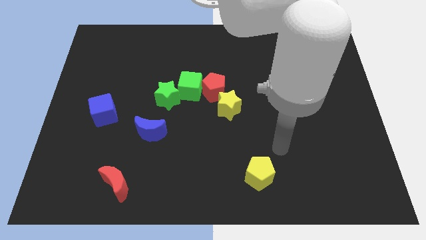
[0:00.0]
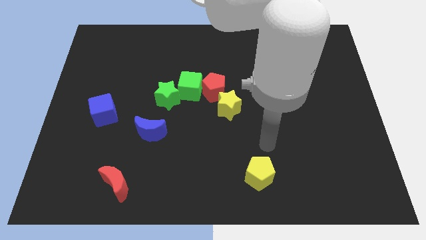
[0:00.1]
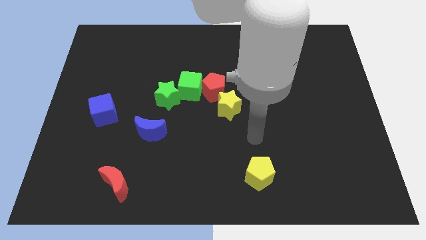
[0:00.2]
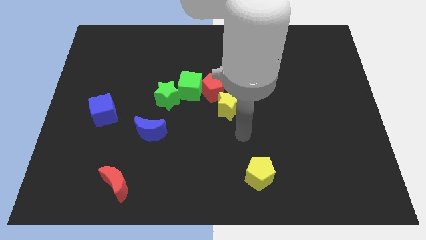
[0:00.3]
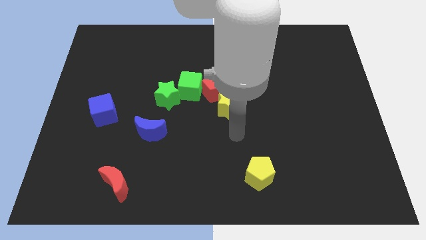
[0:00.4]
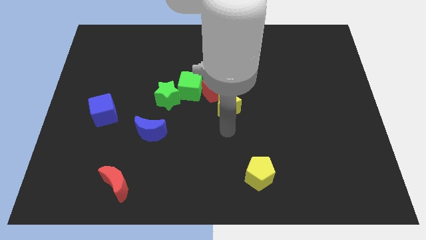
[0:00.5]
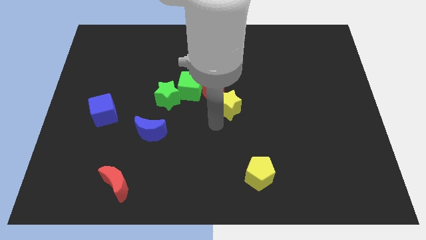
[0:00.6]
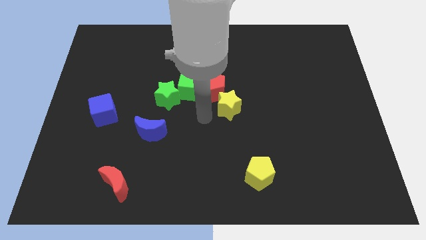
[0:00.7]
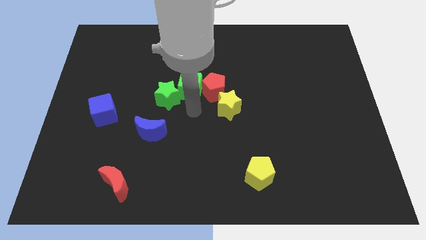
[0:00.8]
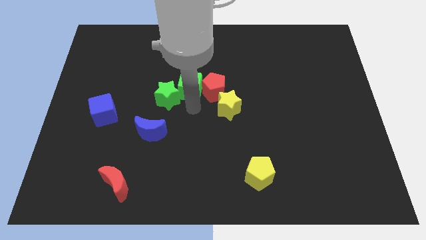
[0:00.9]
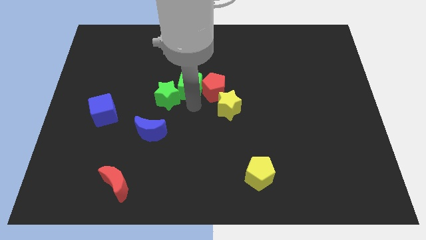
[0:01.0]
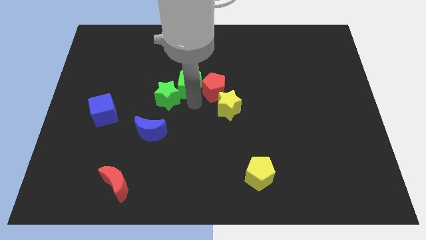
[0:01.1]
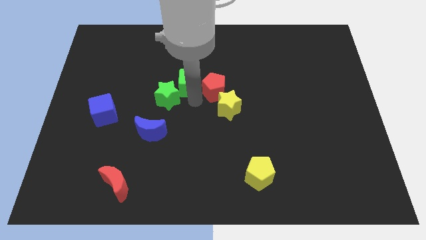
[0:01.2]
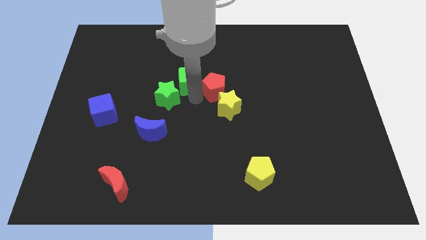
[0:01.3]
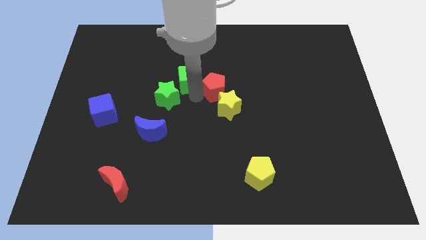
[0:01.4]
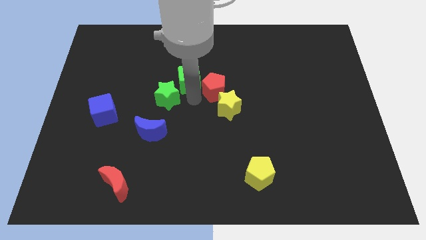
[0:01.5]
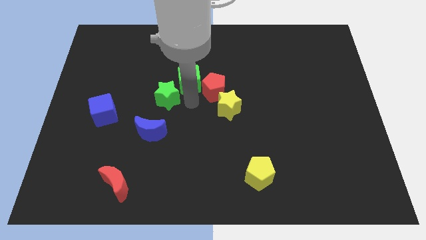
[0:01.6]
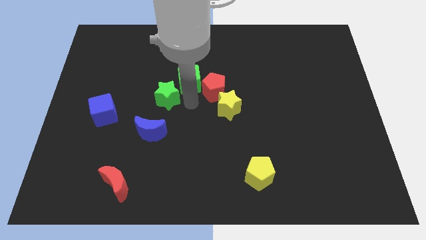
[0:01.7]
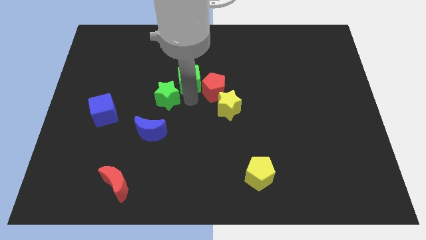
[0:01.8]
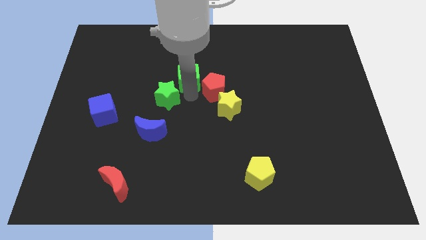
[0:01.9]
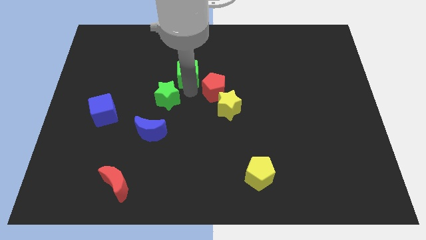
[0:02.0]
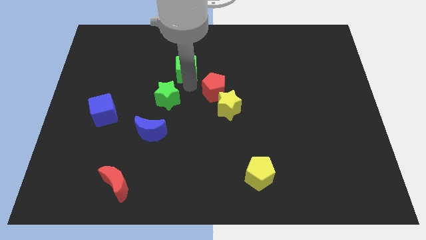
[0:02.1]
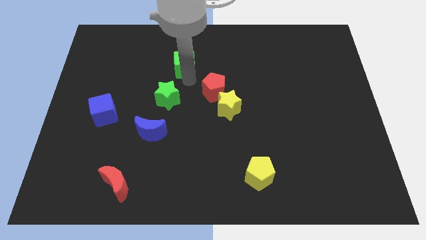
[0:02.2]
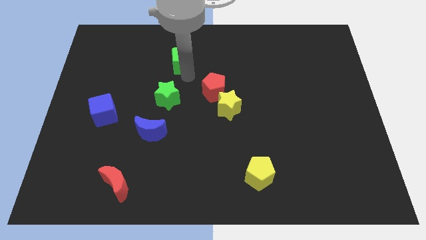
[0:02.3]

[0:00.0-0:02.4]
move the green cube away from the red pentagon and green star

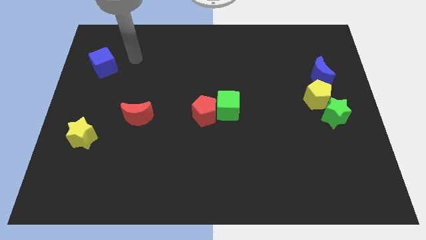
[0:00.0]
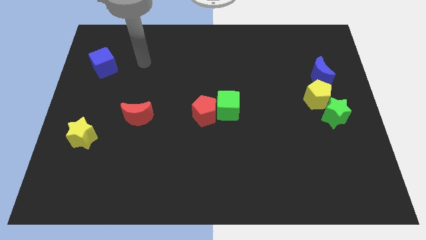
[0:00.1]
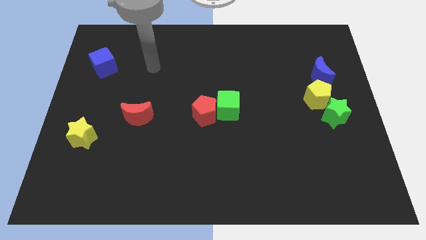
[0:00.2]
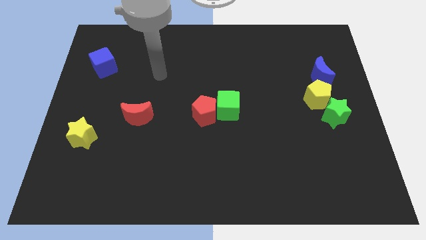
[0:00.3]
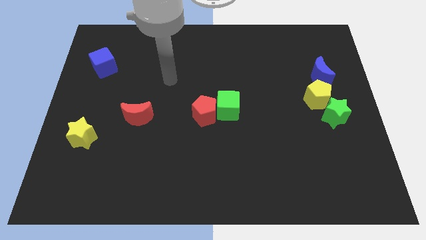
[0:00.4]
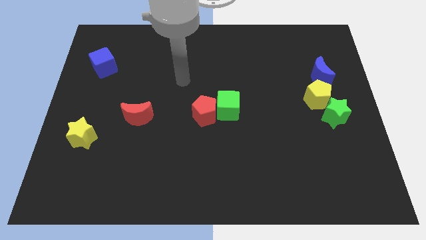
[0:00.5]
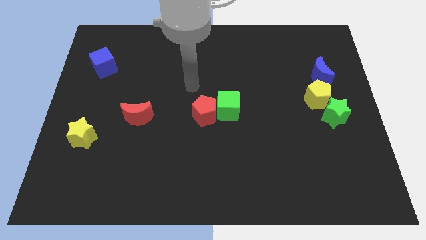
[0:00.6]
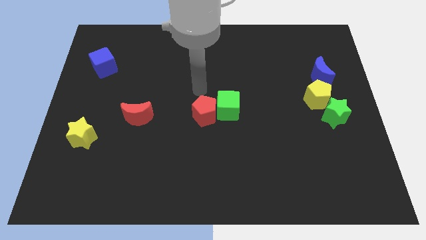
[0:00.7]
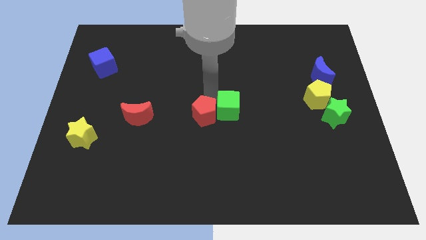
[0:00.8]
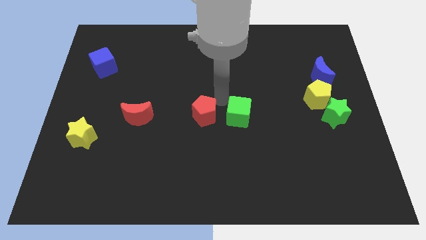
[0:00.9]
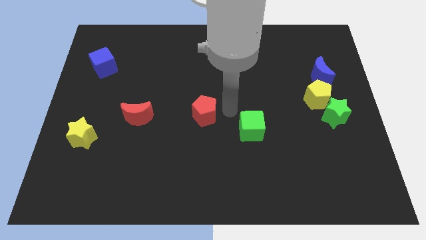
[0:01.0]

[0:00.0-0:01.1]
separate the red pentagon from the green cube

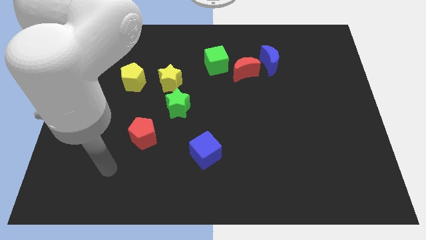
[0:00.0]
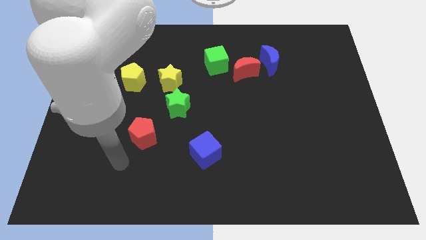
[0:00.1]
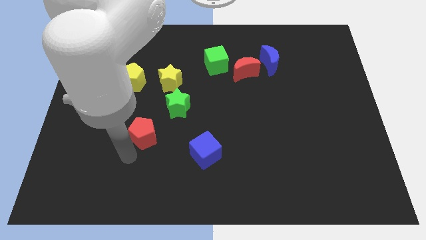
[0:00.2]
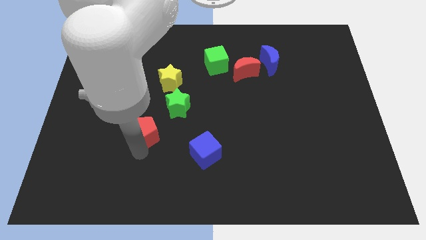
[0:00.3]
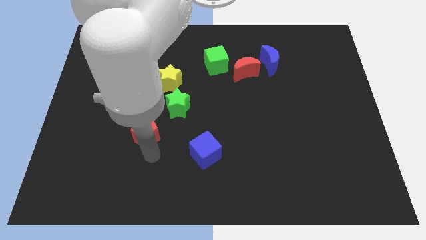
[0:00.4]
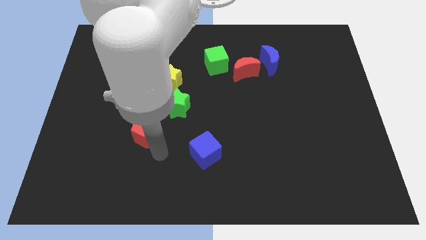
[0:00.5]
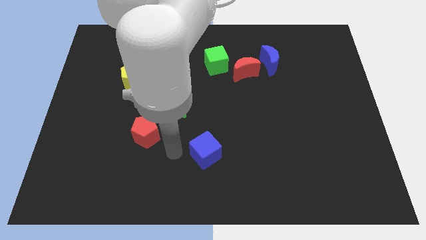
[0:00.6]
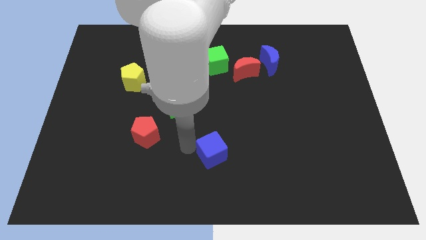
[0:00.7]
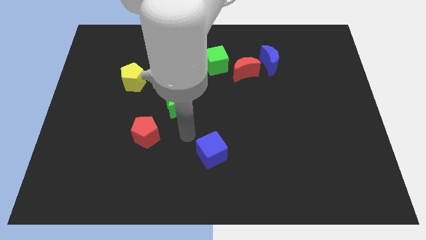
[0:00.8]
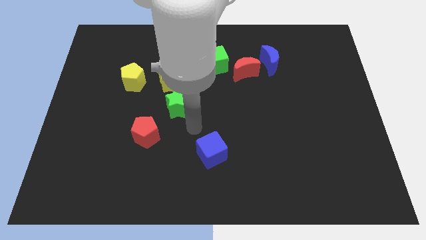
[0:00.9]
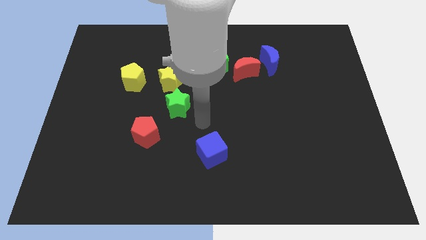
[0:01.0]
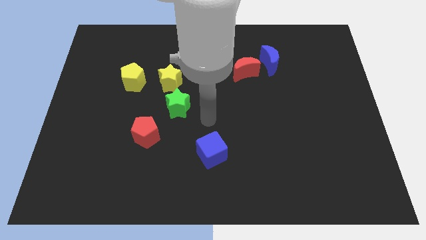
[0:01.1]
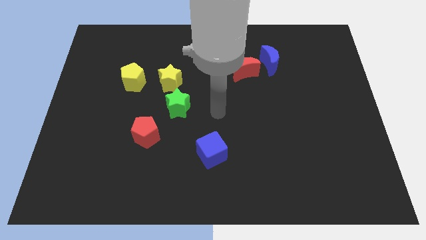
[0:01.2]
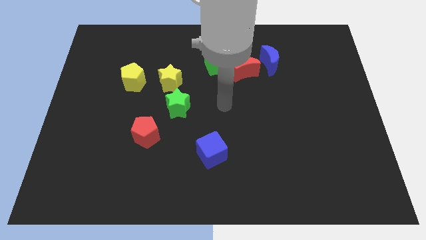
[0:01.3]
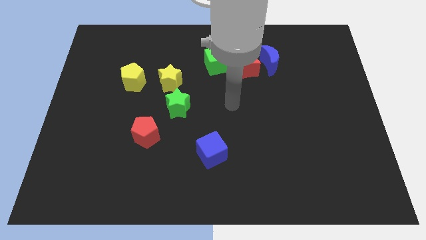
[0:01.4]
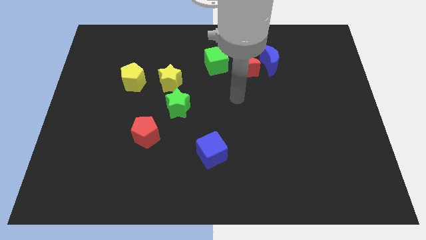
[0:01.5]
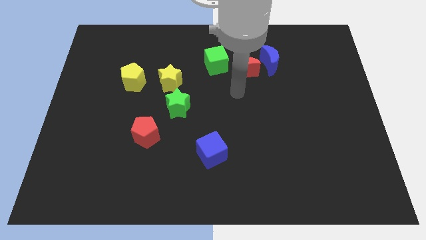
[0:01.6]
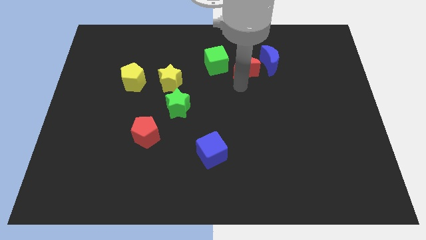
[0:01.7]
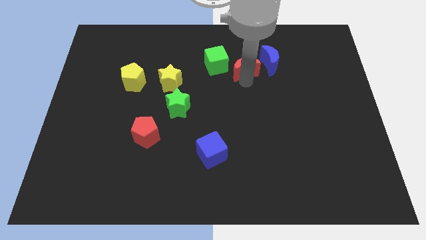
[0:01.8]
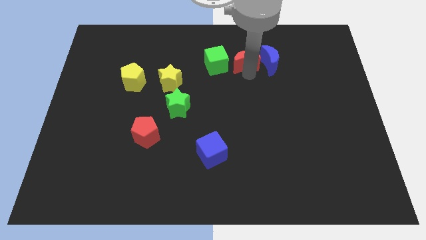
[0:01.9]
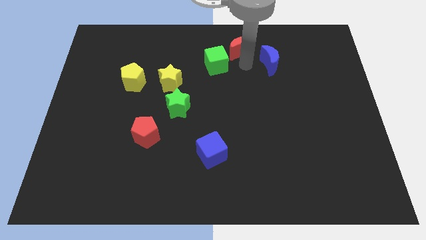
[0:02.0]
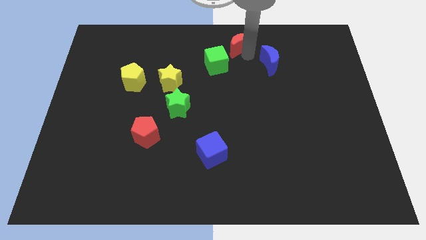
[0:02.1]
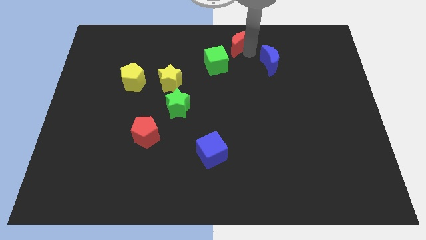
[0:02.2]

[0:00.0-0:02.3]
separate the blue moon from the red moon

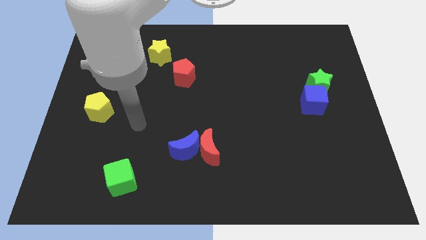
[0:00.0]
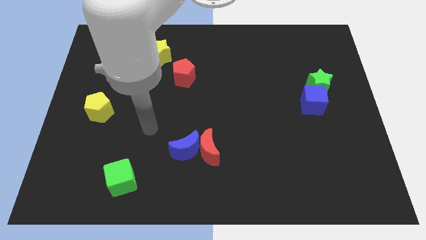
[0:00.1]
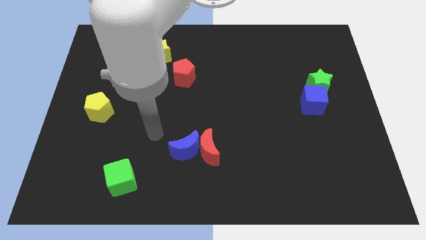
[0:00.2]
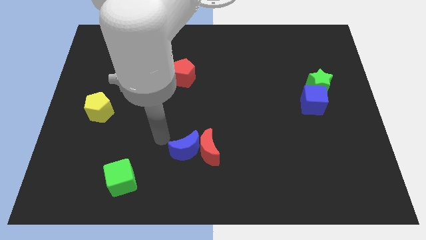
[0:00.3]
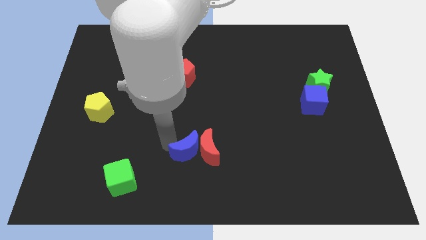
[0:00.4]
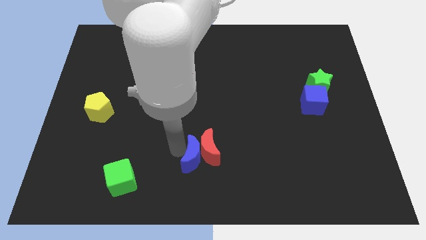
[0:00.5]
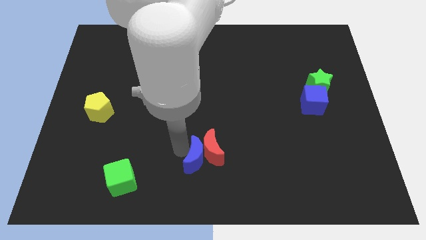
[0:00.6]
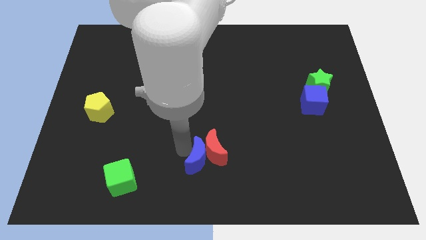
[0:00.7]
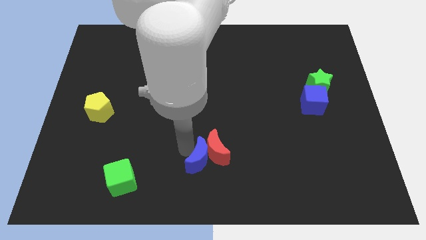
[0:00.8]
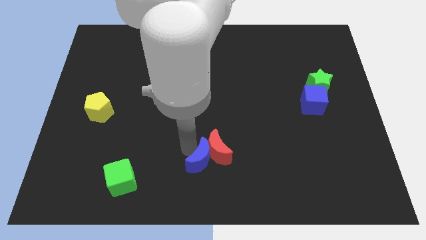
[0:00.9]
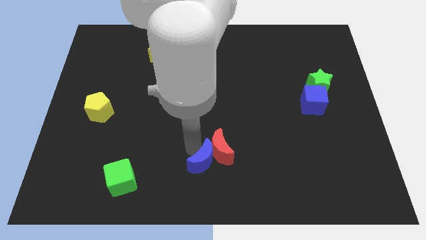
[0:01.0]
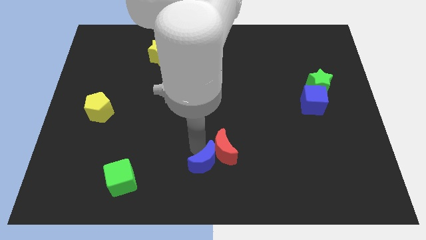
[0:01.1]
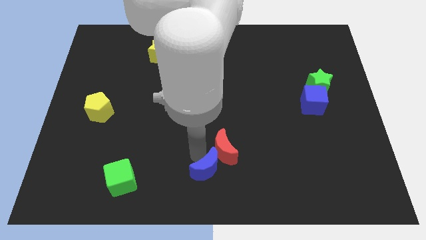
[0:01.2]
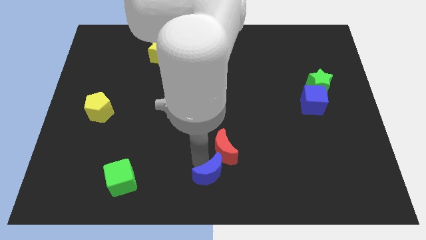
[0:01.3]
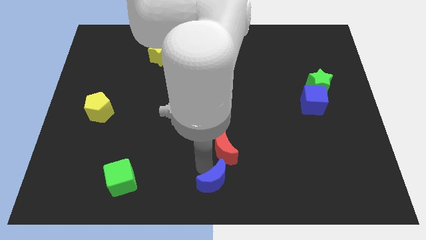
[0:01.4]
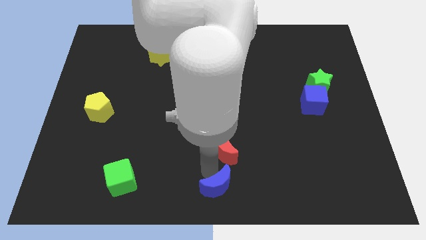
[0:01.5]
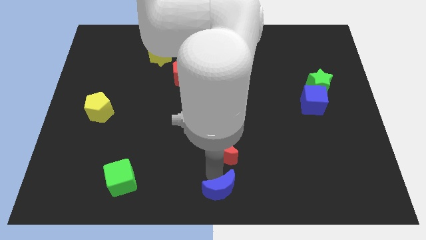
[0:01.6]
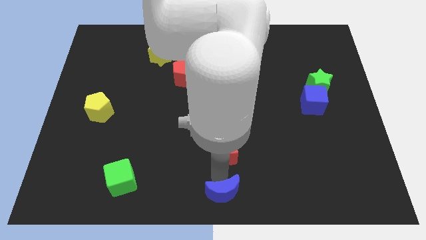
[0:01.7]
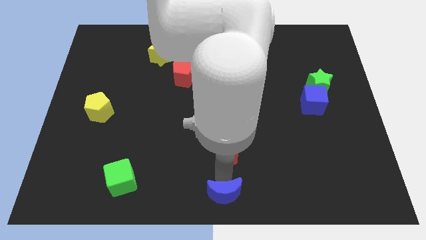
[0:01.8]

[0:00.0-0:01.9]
separate the red moon from the blue moon

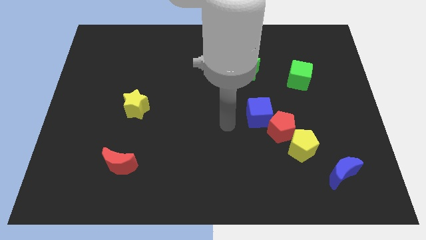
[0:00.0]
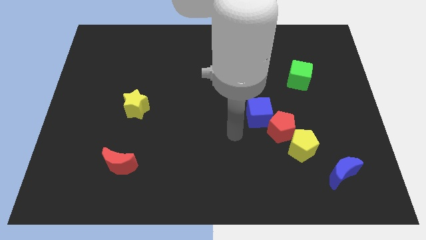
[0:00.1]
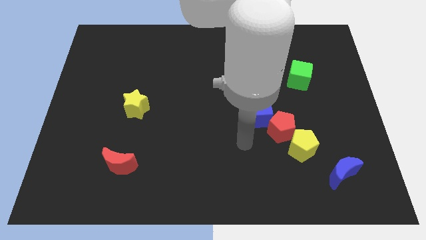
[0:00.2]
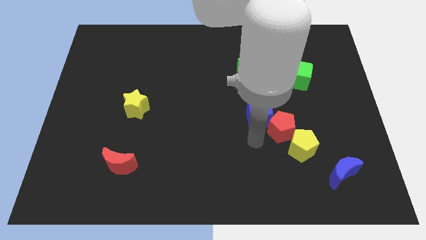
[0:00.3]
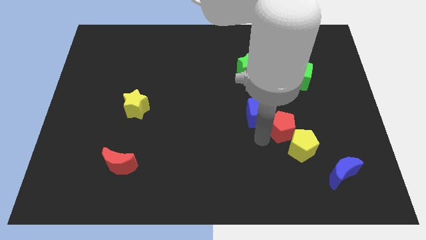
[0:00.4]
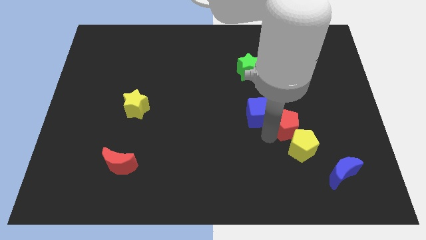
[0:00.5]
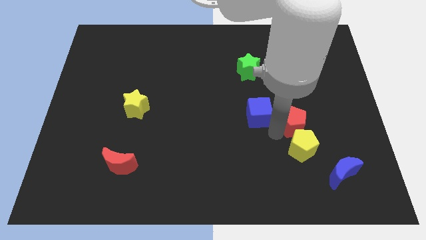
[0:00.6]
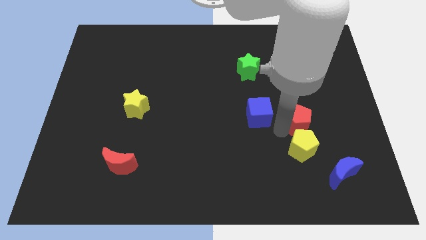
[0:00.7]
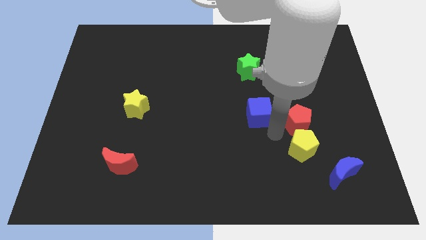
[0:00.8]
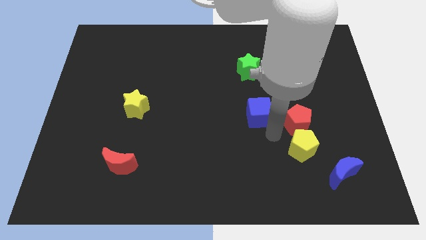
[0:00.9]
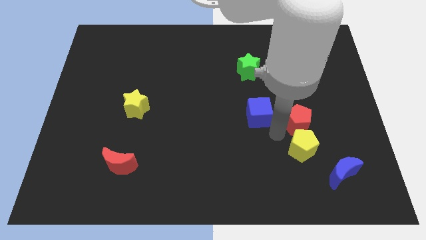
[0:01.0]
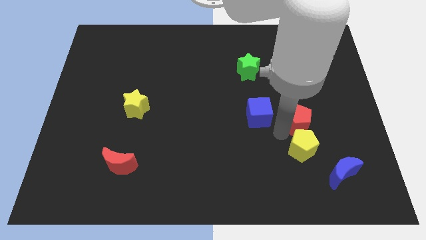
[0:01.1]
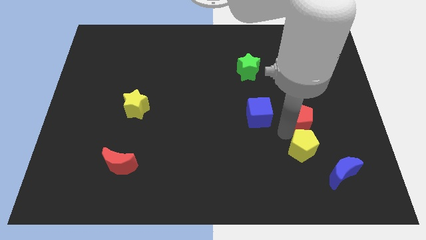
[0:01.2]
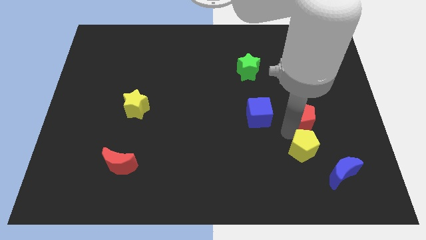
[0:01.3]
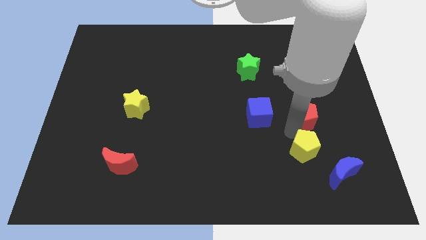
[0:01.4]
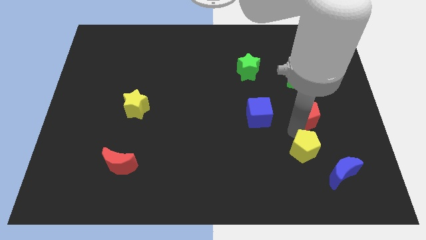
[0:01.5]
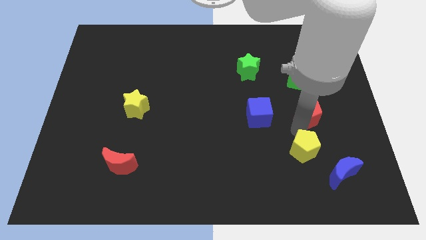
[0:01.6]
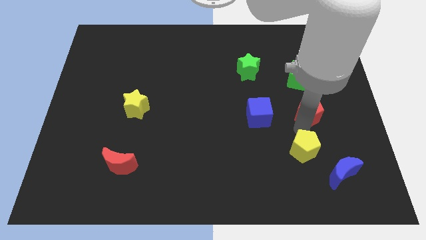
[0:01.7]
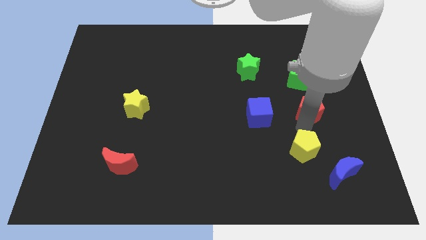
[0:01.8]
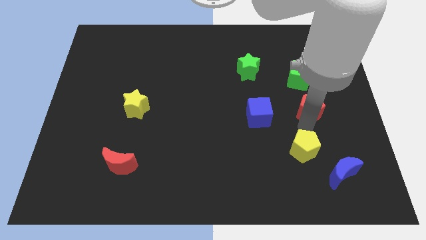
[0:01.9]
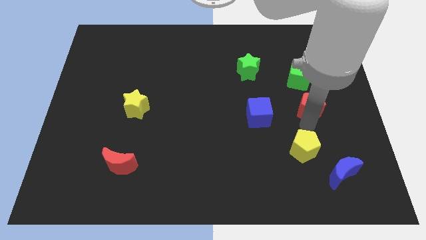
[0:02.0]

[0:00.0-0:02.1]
move the red pentagon away from the yellow pentagon and blue cube
